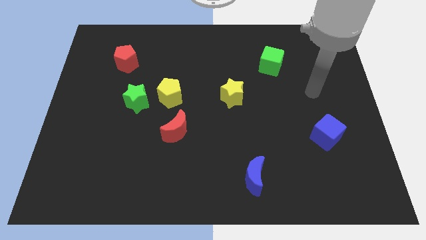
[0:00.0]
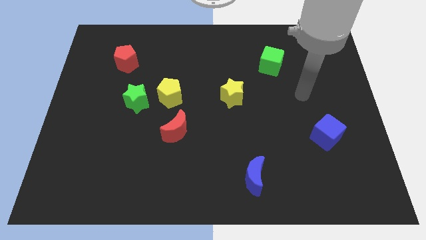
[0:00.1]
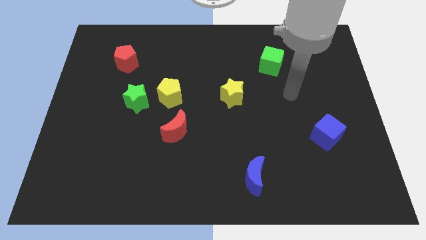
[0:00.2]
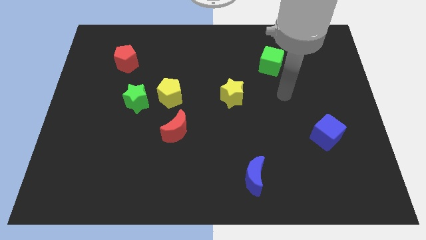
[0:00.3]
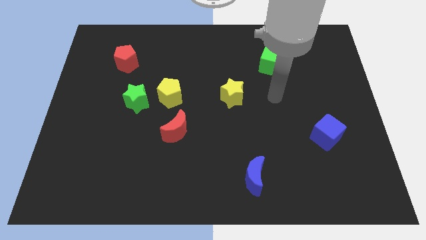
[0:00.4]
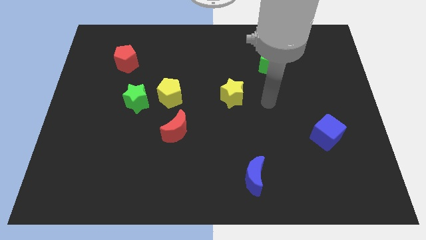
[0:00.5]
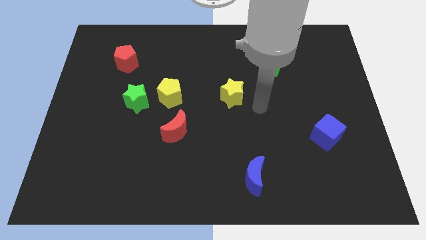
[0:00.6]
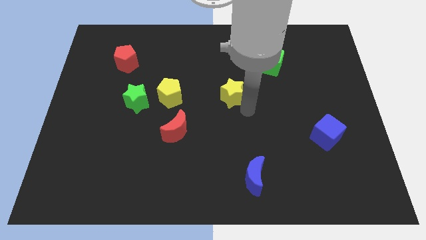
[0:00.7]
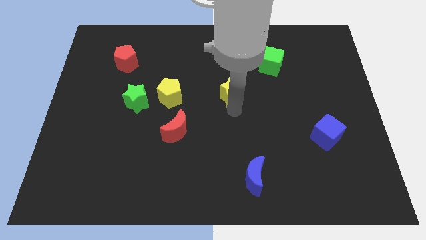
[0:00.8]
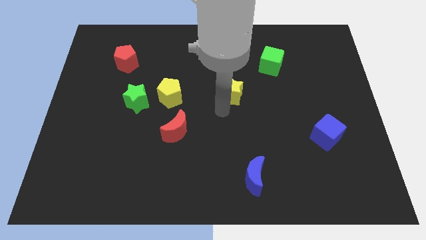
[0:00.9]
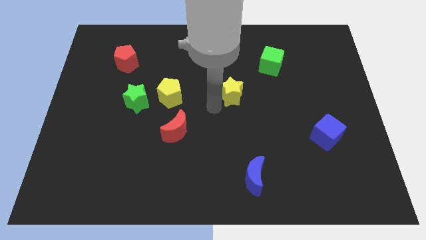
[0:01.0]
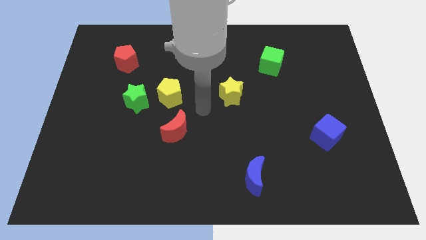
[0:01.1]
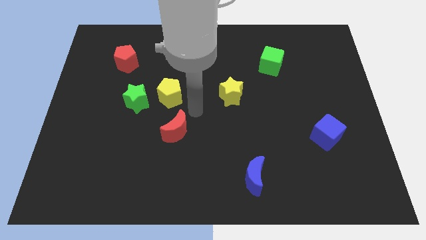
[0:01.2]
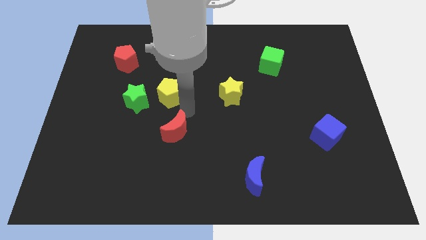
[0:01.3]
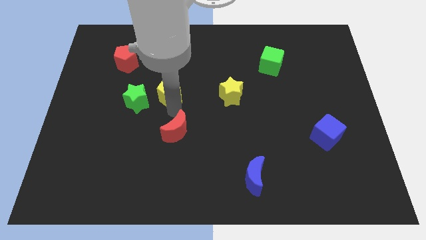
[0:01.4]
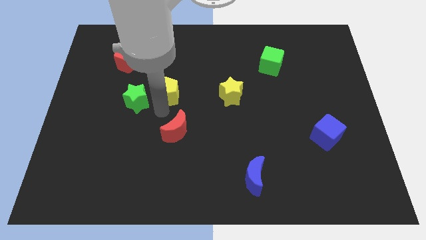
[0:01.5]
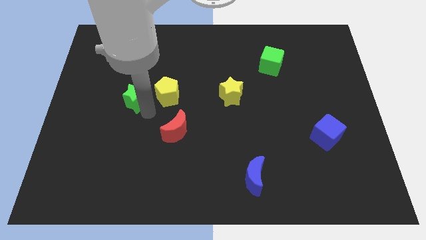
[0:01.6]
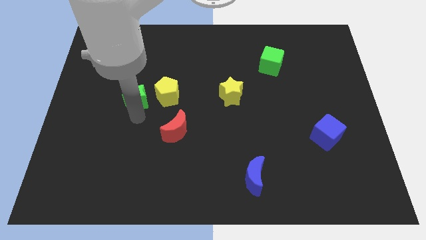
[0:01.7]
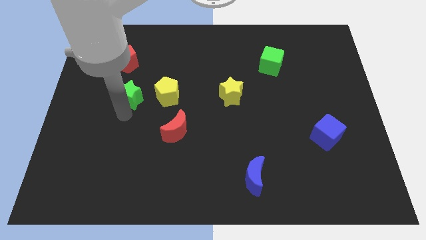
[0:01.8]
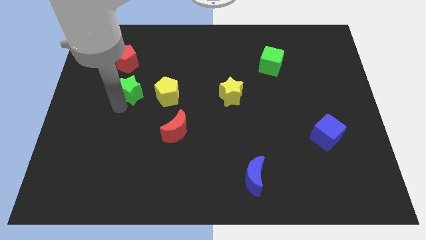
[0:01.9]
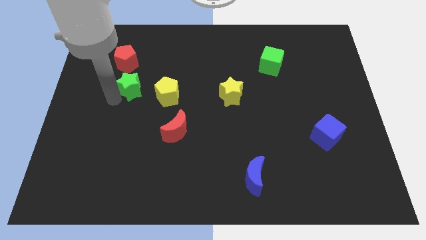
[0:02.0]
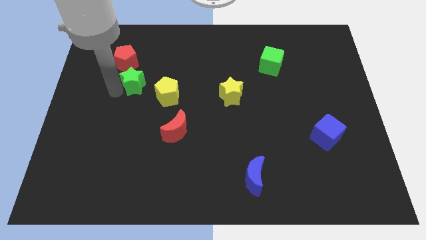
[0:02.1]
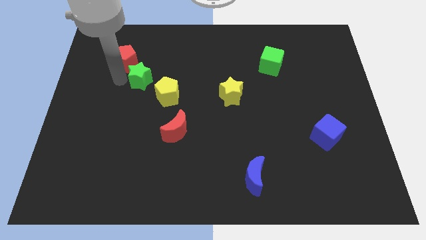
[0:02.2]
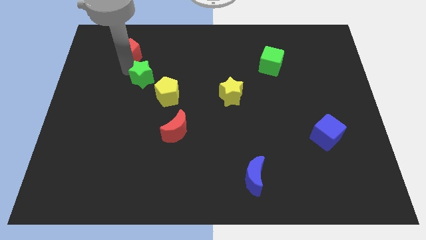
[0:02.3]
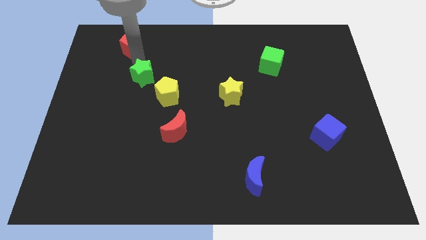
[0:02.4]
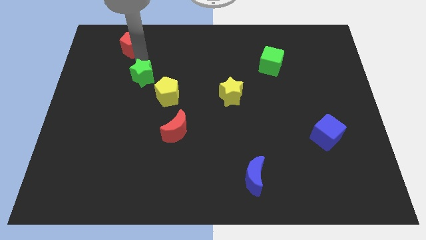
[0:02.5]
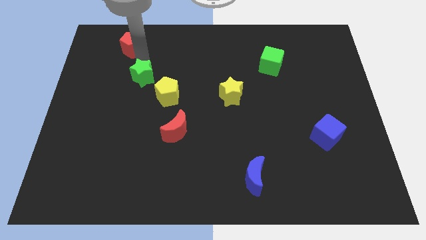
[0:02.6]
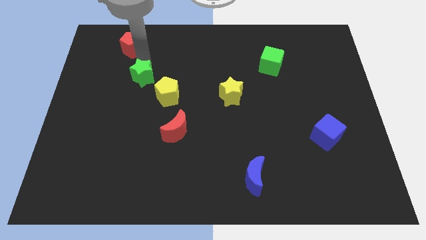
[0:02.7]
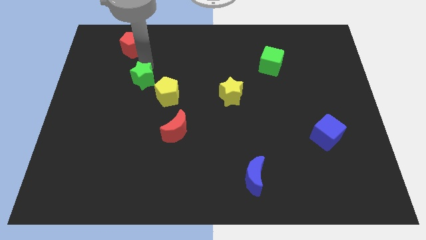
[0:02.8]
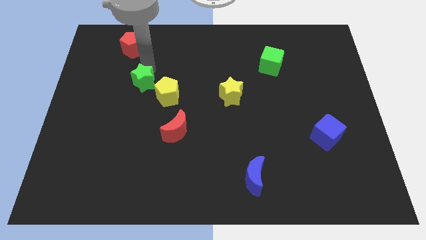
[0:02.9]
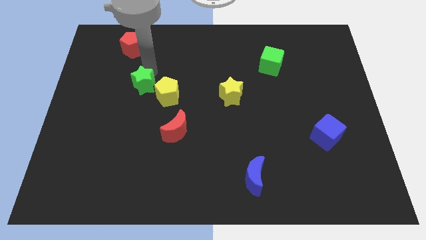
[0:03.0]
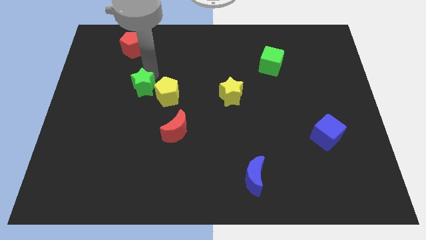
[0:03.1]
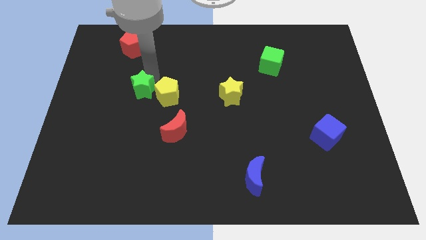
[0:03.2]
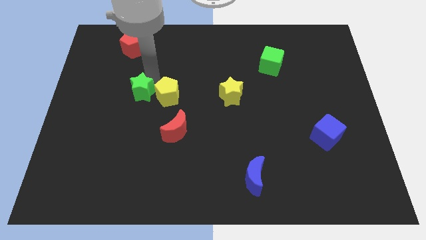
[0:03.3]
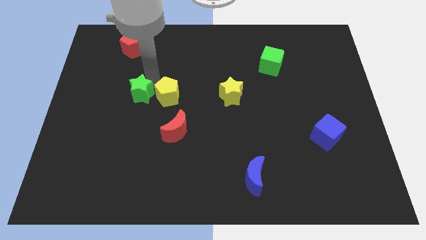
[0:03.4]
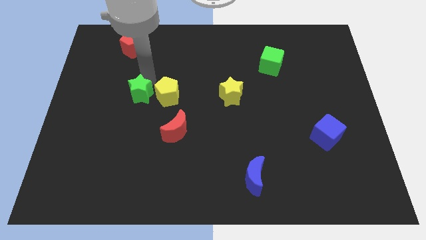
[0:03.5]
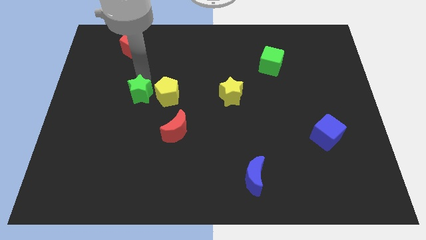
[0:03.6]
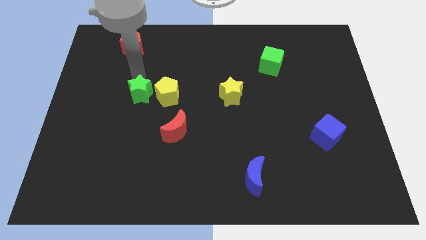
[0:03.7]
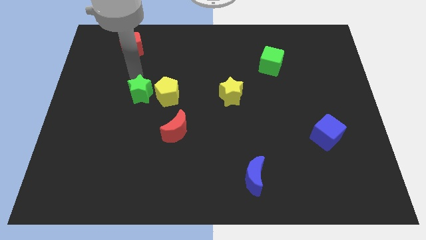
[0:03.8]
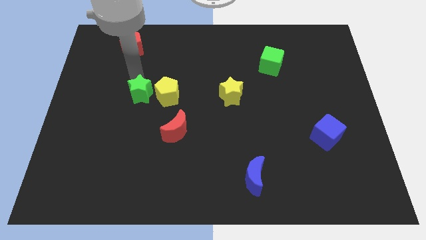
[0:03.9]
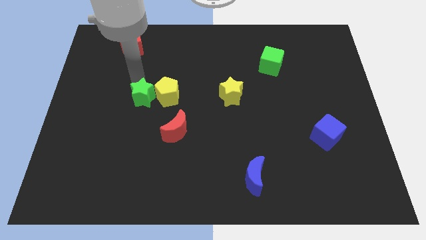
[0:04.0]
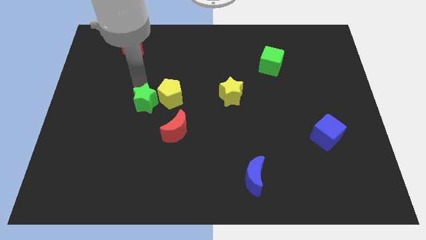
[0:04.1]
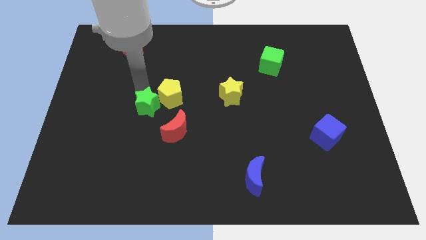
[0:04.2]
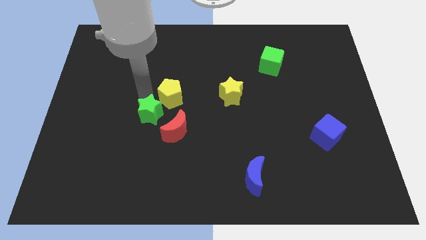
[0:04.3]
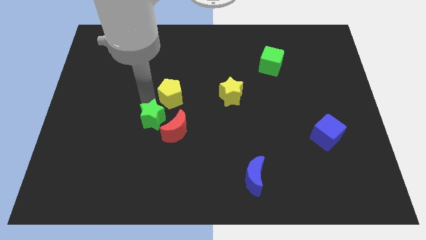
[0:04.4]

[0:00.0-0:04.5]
slightly push the green star down and then to the right

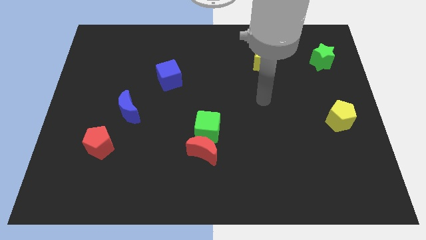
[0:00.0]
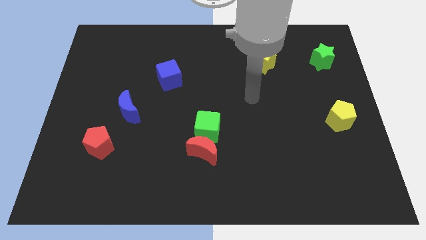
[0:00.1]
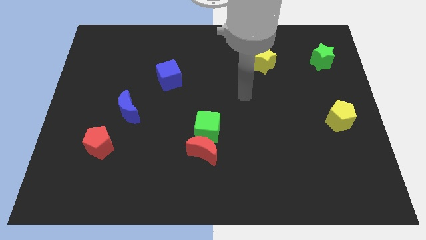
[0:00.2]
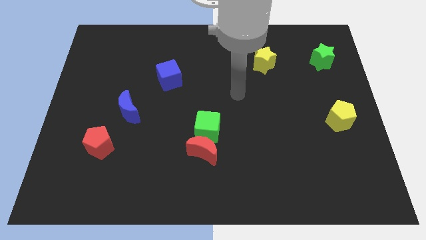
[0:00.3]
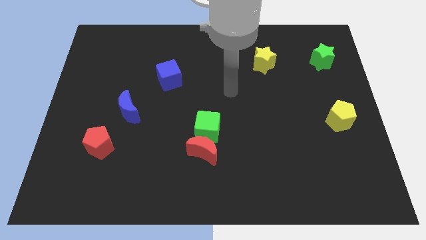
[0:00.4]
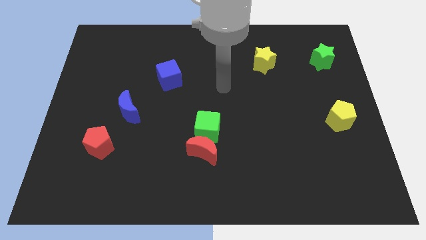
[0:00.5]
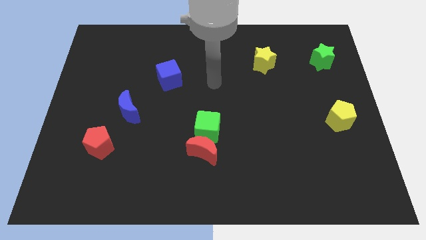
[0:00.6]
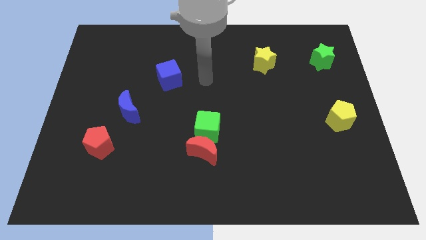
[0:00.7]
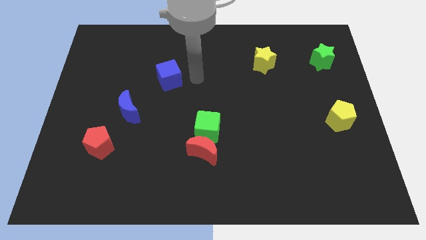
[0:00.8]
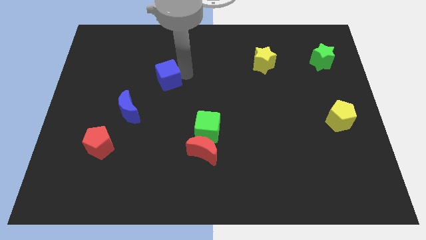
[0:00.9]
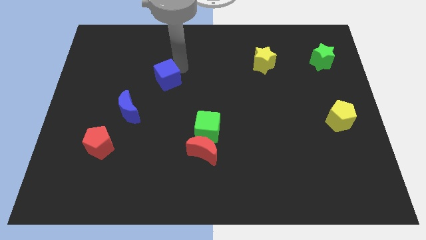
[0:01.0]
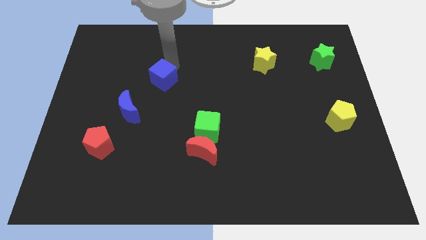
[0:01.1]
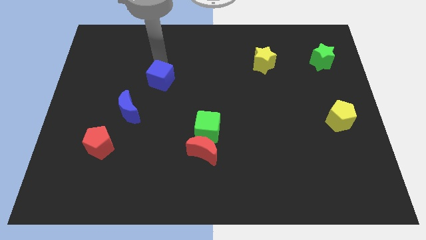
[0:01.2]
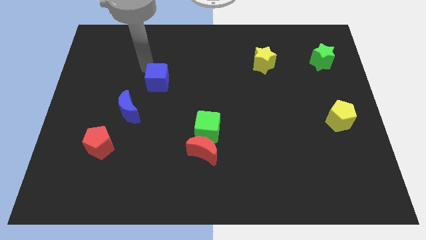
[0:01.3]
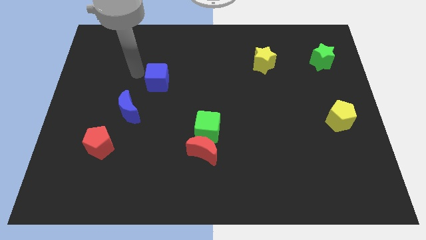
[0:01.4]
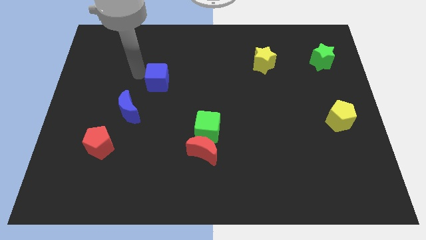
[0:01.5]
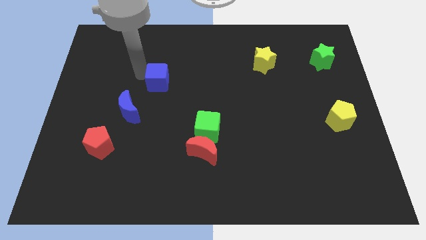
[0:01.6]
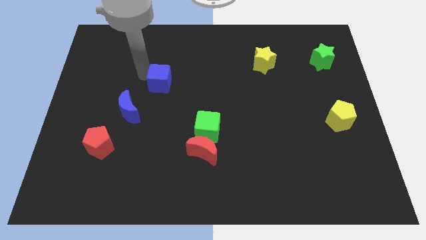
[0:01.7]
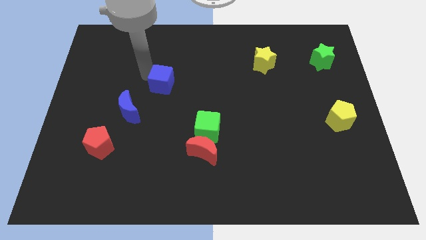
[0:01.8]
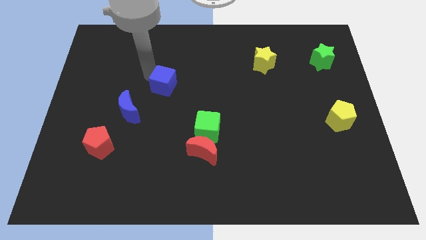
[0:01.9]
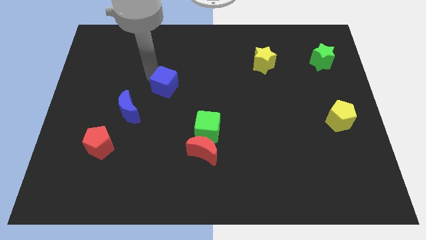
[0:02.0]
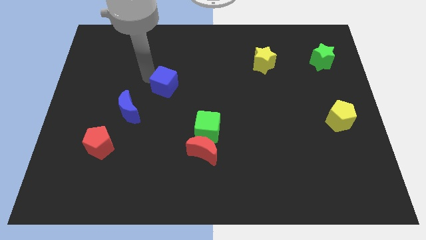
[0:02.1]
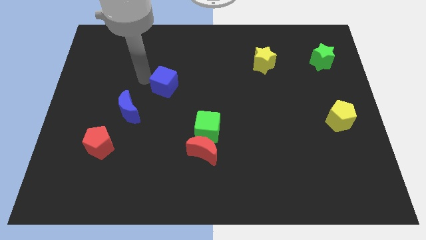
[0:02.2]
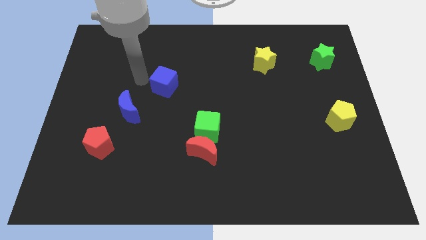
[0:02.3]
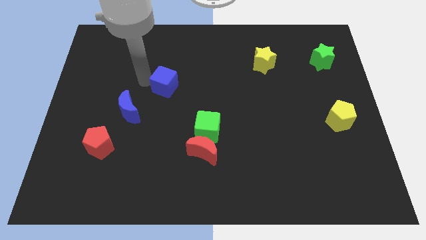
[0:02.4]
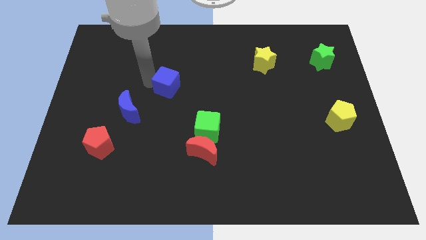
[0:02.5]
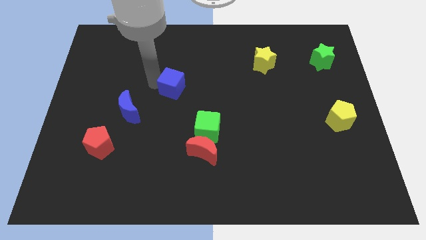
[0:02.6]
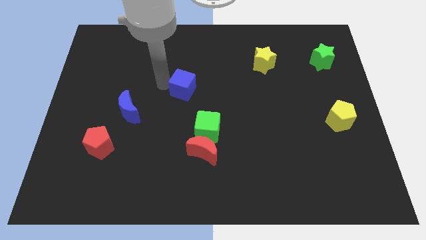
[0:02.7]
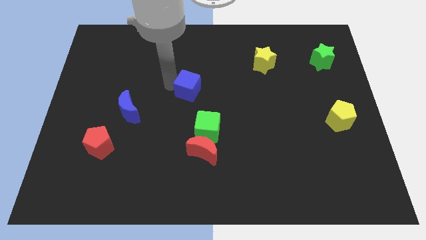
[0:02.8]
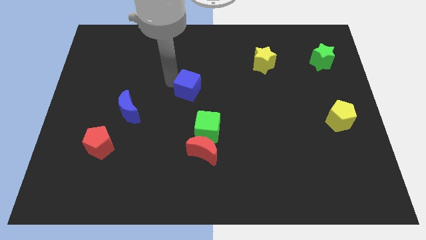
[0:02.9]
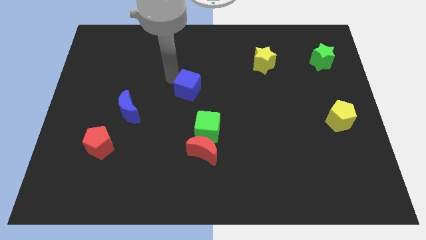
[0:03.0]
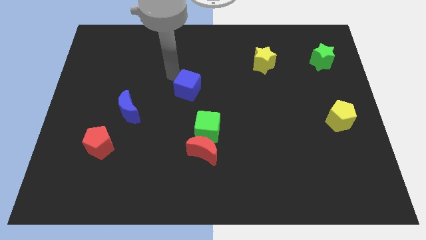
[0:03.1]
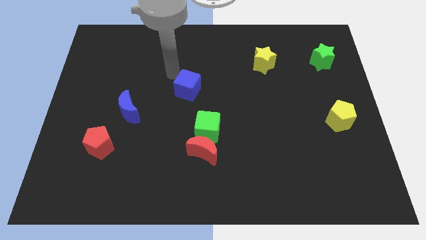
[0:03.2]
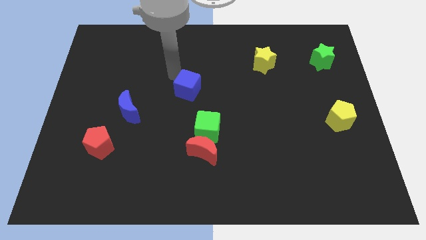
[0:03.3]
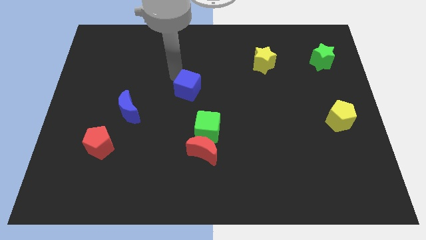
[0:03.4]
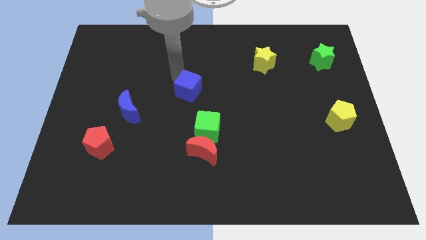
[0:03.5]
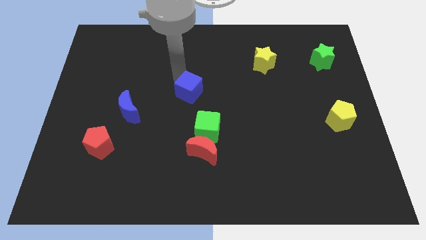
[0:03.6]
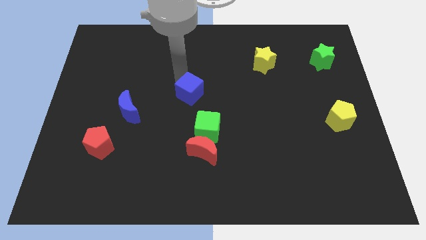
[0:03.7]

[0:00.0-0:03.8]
move the blue cube downwards and right diagonally a little
